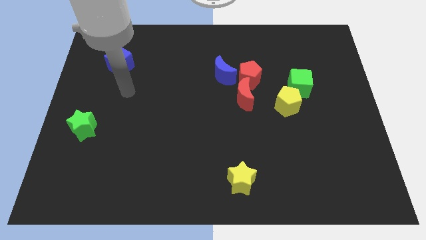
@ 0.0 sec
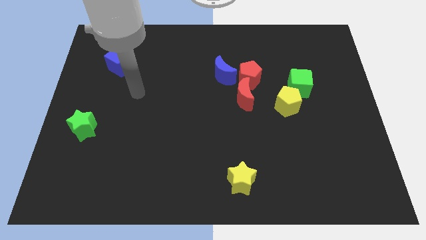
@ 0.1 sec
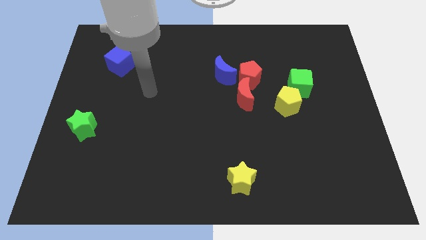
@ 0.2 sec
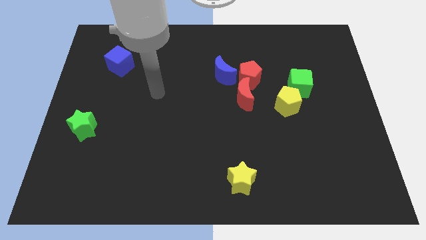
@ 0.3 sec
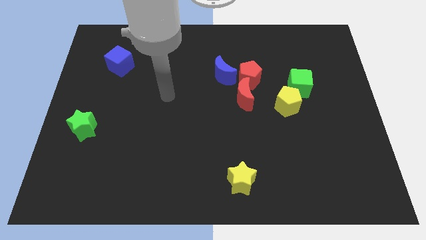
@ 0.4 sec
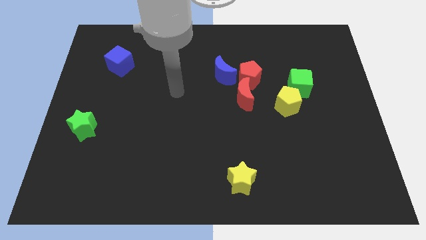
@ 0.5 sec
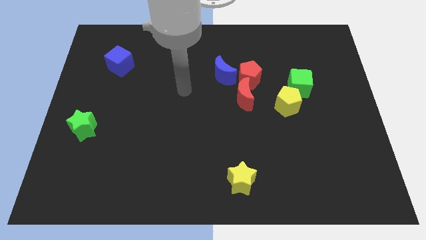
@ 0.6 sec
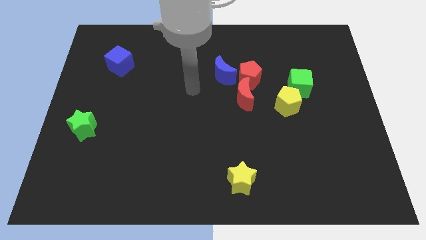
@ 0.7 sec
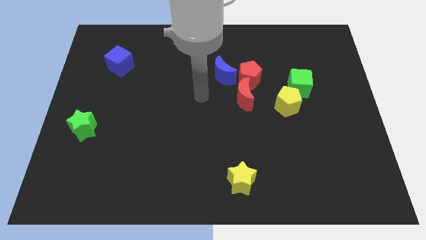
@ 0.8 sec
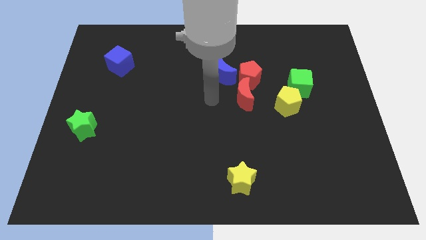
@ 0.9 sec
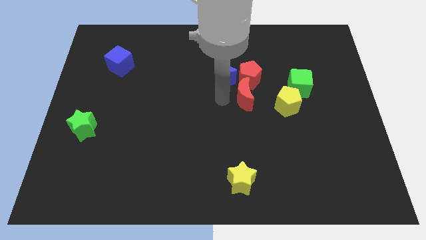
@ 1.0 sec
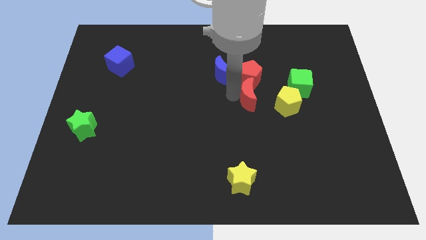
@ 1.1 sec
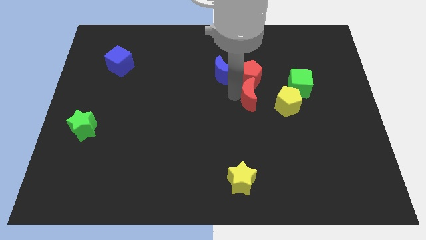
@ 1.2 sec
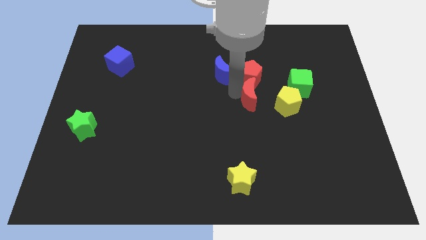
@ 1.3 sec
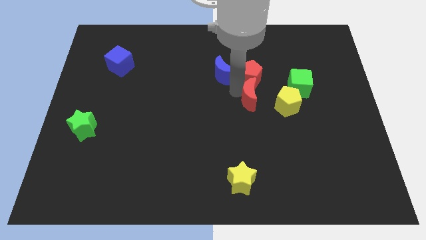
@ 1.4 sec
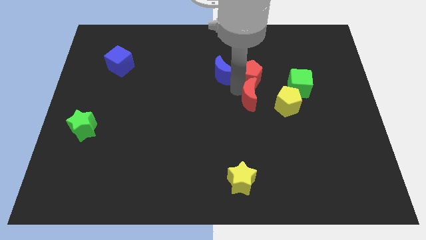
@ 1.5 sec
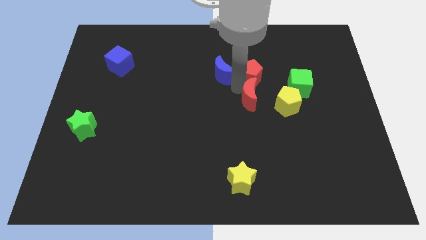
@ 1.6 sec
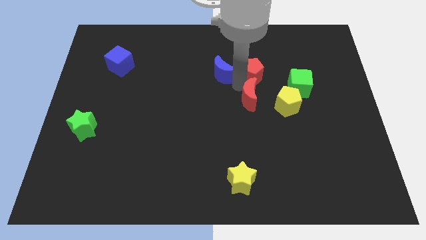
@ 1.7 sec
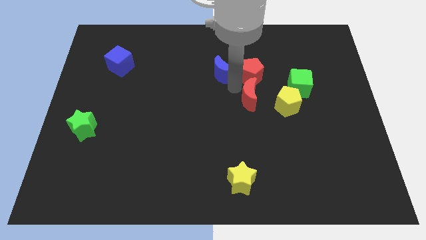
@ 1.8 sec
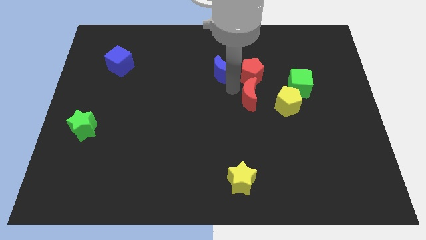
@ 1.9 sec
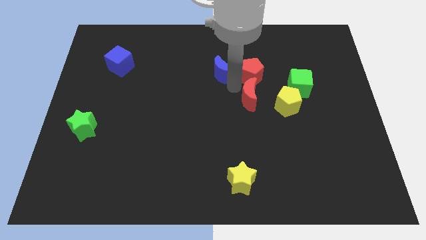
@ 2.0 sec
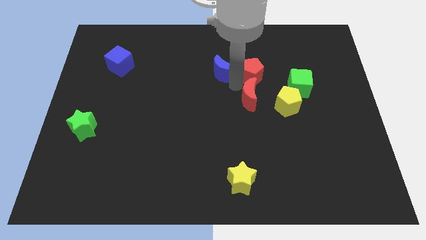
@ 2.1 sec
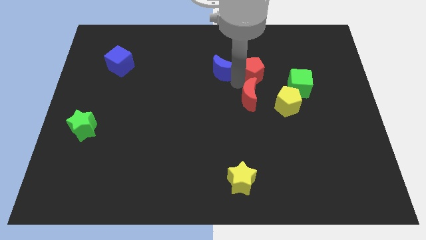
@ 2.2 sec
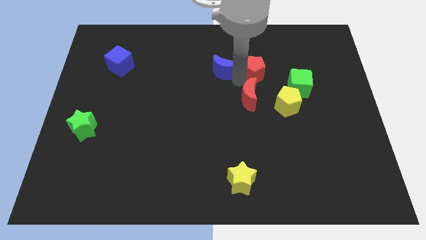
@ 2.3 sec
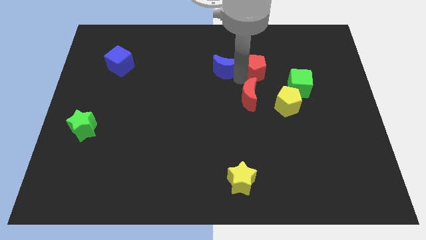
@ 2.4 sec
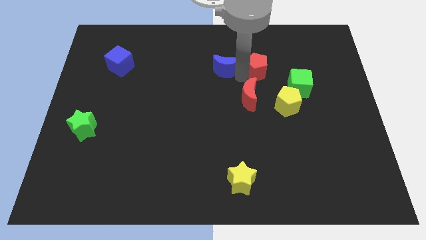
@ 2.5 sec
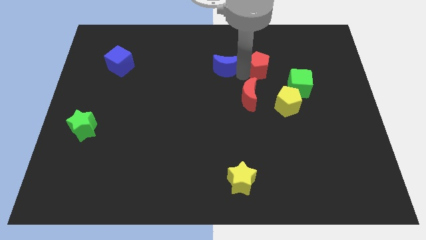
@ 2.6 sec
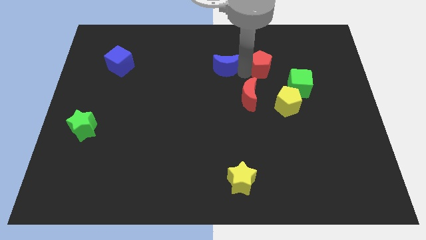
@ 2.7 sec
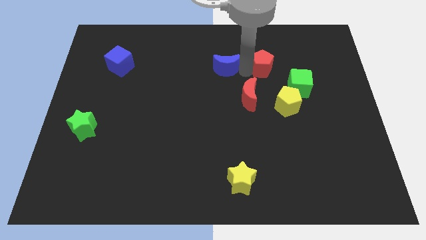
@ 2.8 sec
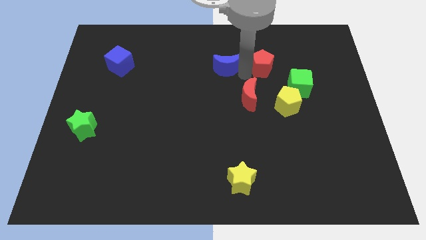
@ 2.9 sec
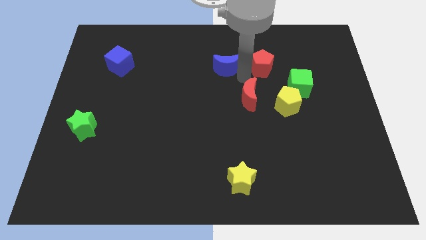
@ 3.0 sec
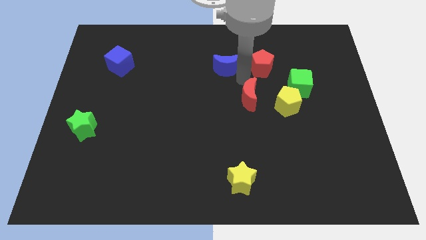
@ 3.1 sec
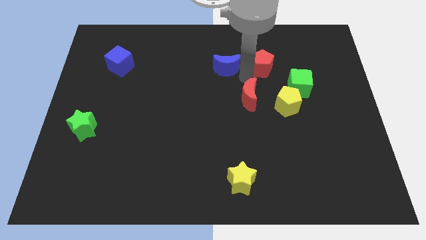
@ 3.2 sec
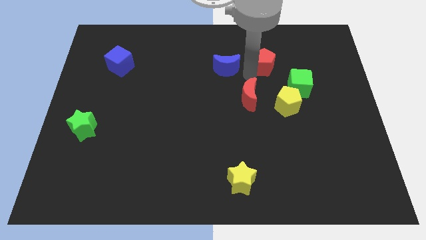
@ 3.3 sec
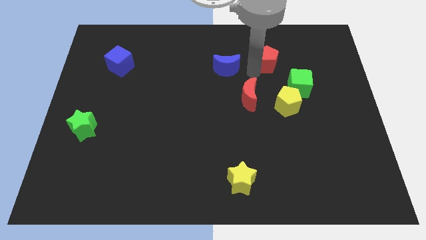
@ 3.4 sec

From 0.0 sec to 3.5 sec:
pull the red pentagon apart from the red moon and blue moon

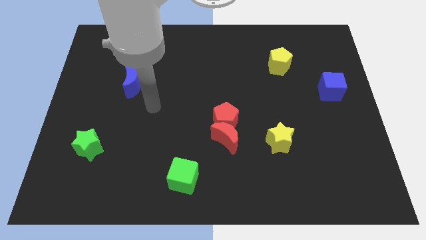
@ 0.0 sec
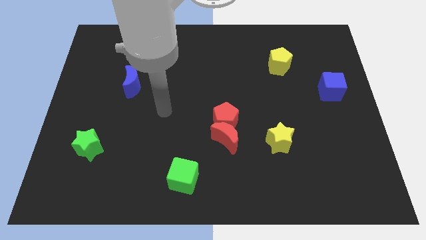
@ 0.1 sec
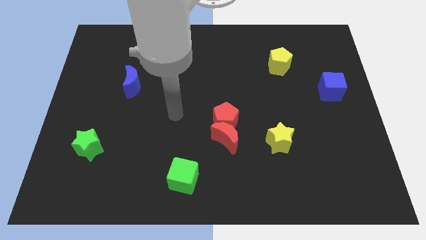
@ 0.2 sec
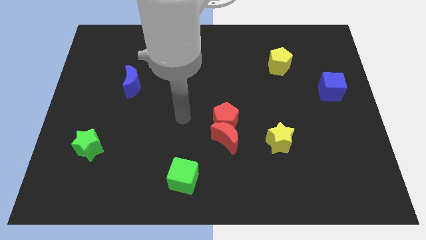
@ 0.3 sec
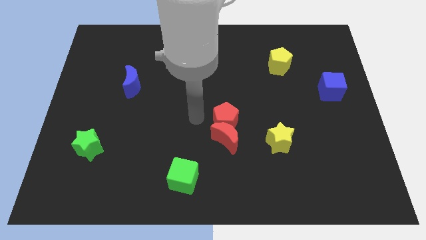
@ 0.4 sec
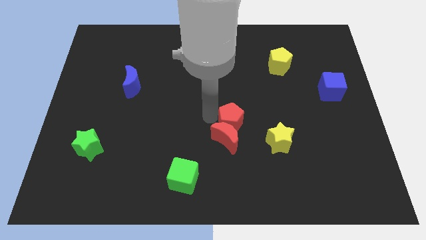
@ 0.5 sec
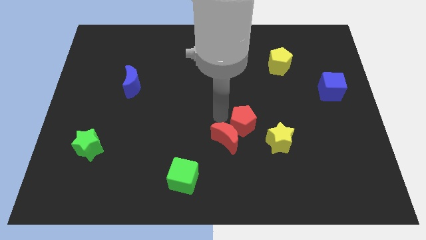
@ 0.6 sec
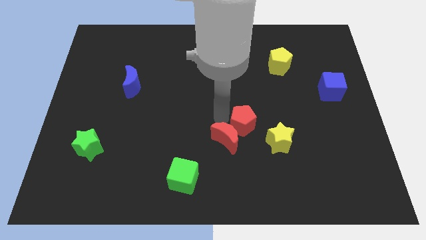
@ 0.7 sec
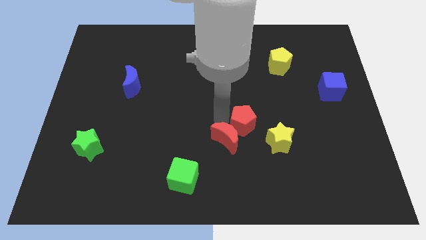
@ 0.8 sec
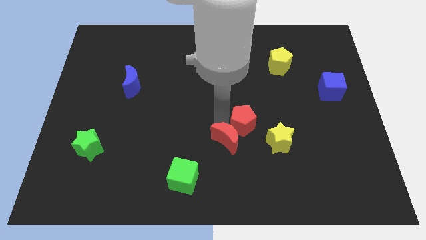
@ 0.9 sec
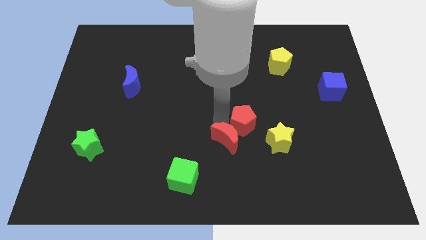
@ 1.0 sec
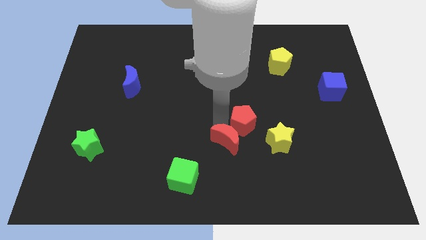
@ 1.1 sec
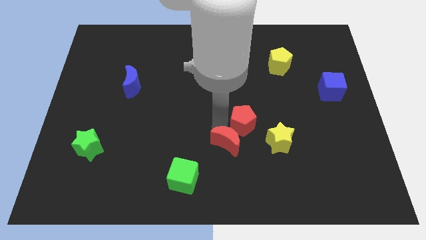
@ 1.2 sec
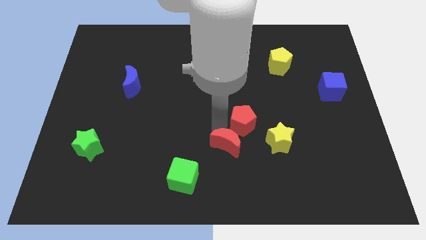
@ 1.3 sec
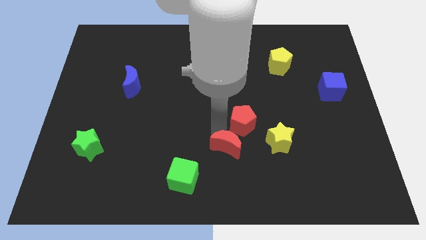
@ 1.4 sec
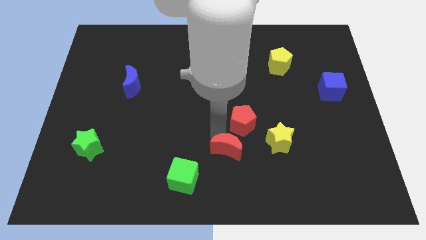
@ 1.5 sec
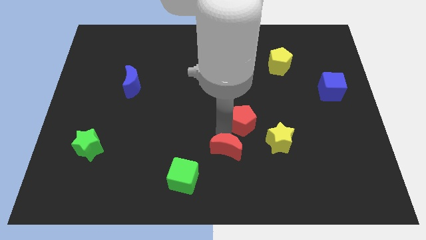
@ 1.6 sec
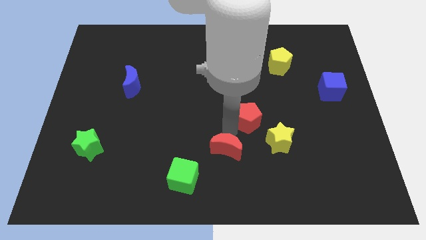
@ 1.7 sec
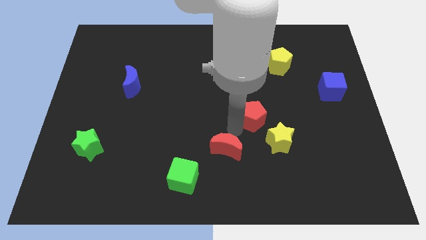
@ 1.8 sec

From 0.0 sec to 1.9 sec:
separate the red moon from the red pentagon

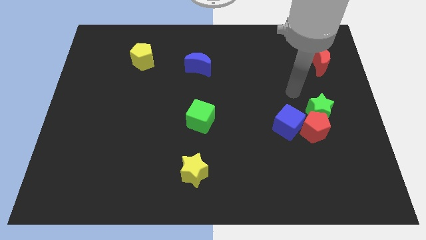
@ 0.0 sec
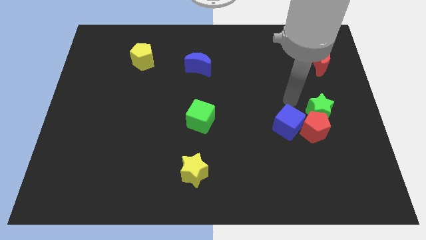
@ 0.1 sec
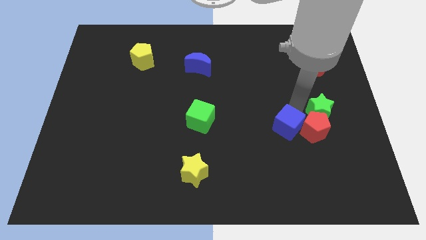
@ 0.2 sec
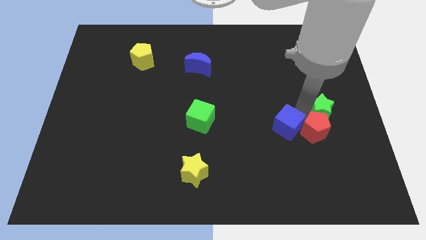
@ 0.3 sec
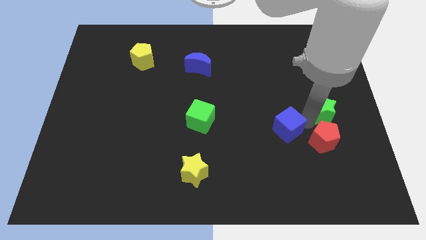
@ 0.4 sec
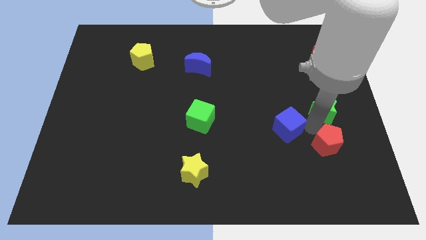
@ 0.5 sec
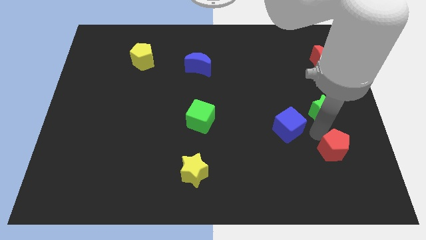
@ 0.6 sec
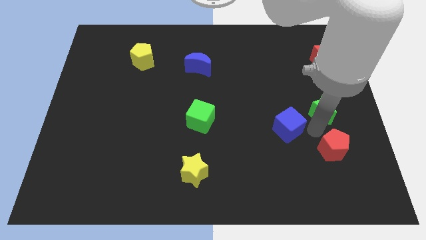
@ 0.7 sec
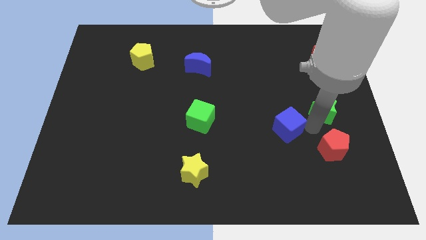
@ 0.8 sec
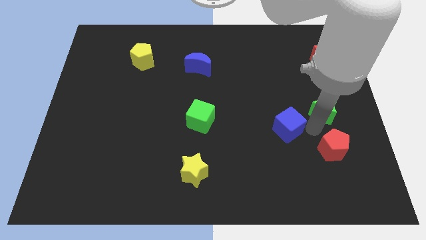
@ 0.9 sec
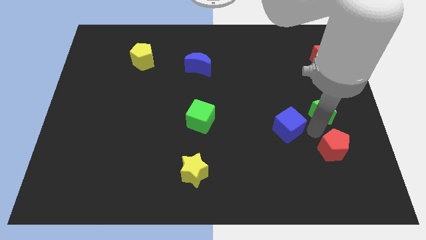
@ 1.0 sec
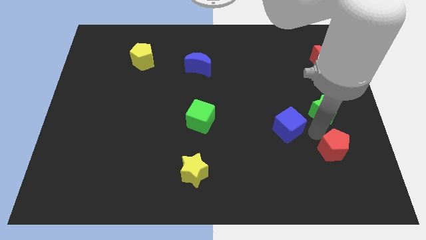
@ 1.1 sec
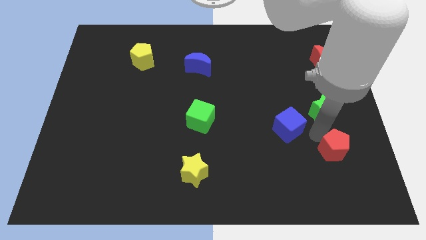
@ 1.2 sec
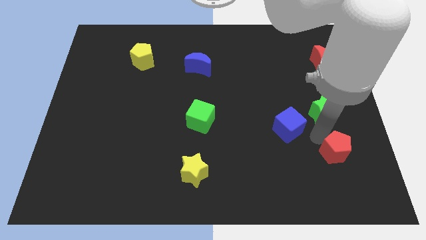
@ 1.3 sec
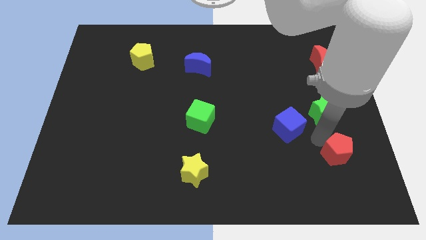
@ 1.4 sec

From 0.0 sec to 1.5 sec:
pull the red pentagon apart from the green star and blue cube

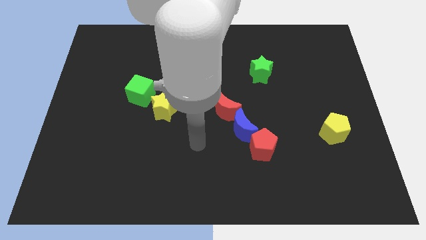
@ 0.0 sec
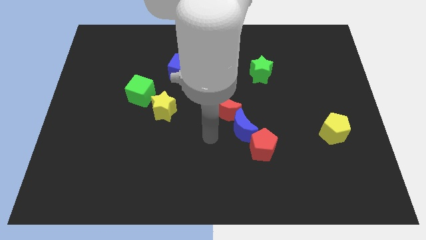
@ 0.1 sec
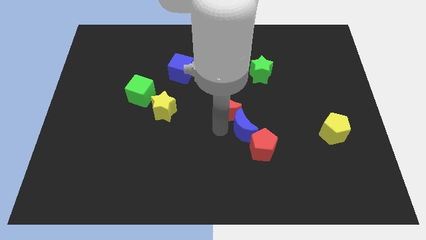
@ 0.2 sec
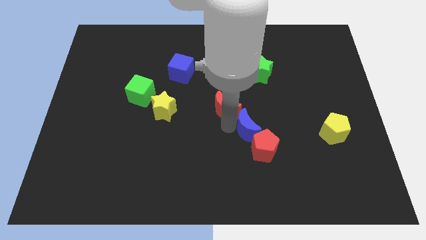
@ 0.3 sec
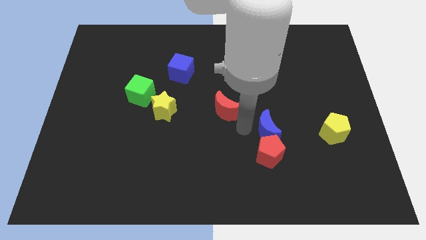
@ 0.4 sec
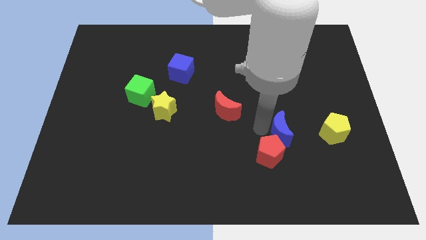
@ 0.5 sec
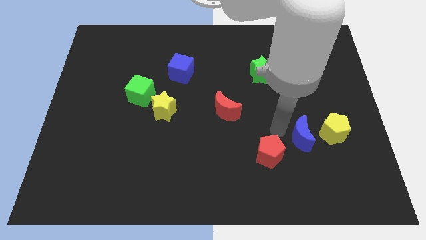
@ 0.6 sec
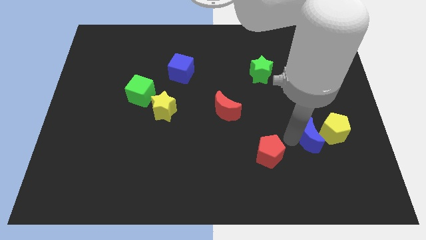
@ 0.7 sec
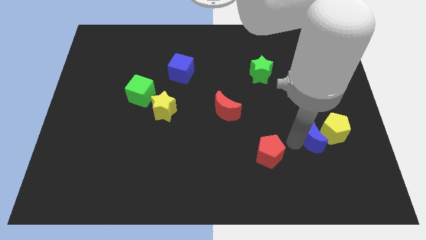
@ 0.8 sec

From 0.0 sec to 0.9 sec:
pull the red pentagon apart from the blue moon

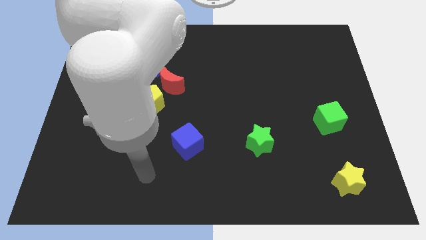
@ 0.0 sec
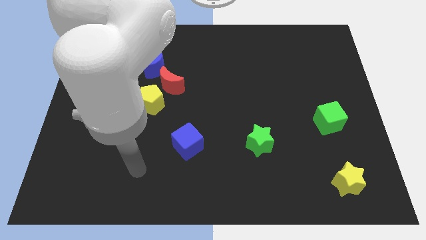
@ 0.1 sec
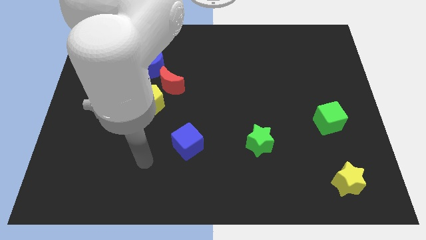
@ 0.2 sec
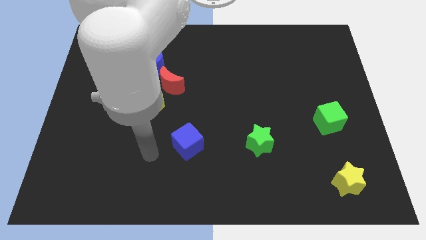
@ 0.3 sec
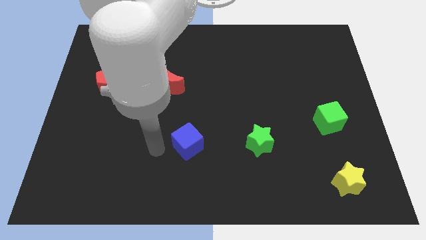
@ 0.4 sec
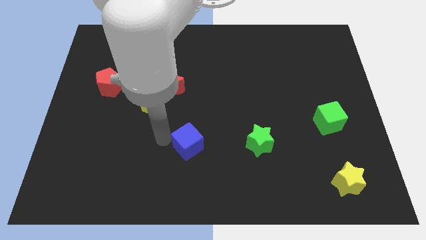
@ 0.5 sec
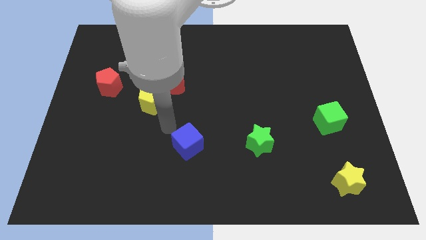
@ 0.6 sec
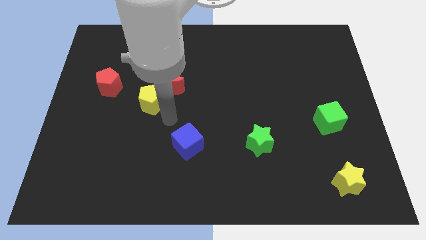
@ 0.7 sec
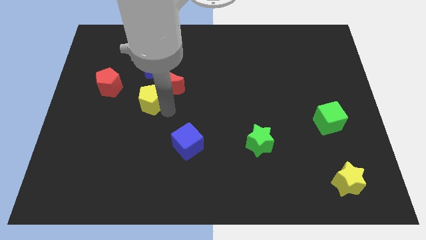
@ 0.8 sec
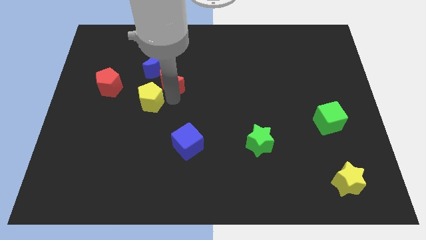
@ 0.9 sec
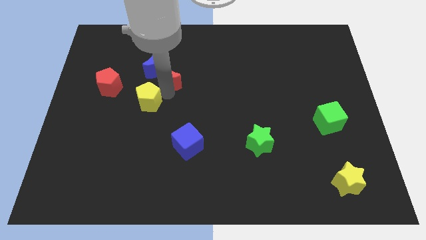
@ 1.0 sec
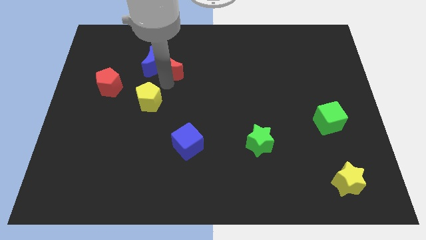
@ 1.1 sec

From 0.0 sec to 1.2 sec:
pull the yellow pentagon apart from the red moon

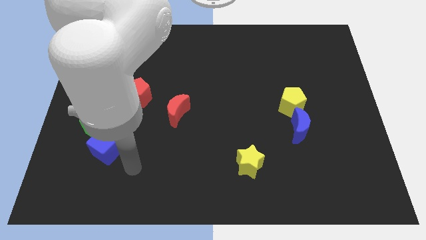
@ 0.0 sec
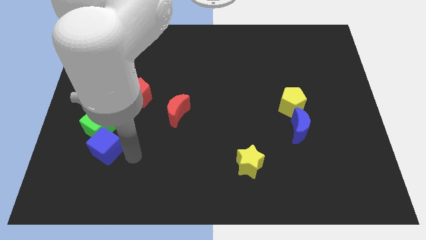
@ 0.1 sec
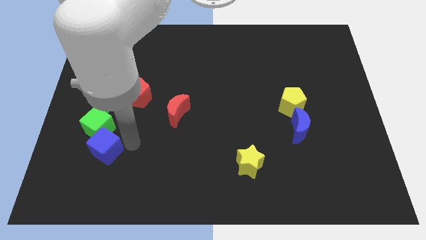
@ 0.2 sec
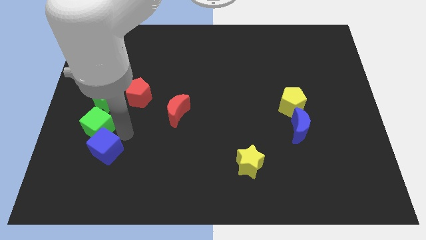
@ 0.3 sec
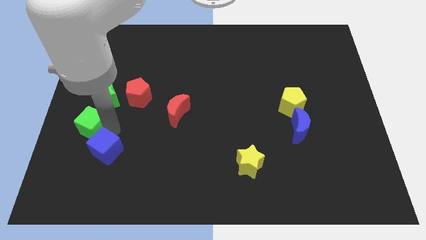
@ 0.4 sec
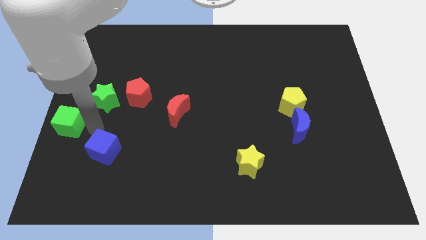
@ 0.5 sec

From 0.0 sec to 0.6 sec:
move the blue cube away from the green cube
